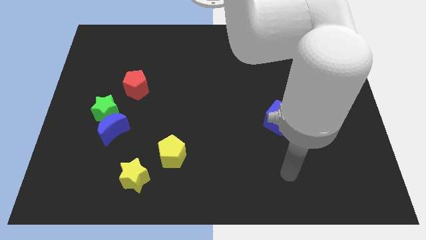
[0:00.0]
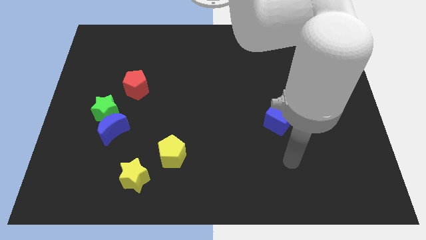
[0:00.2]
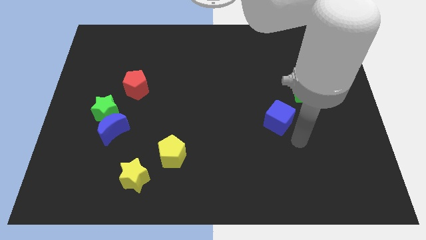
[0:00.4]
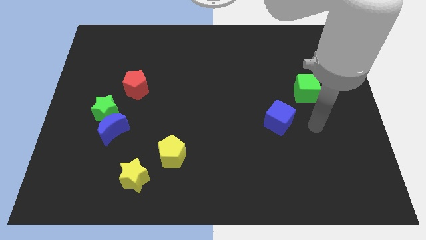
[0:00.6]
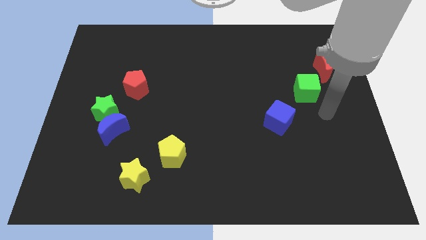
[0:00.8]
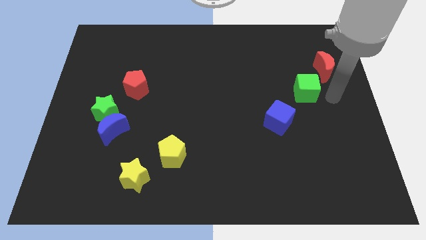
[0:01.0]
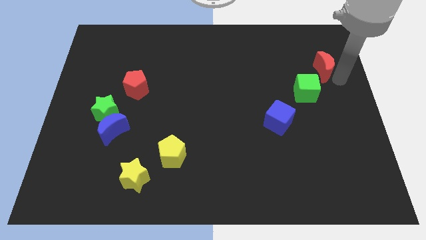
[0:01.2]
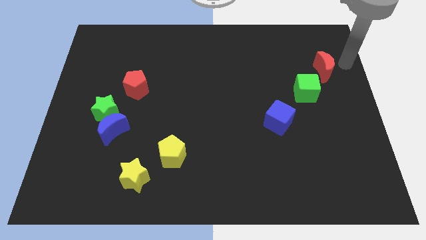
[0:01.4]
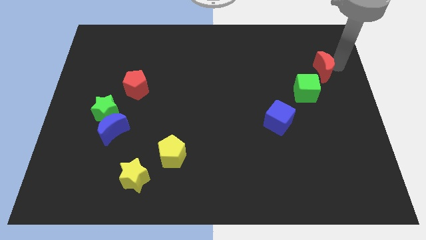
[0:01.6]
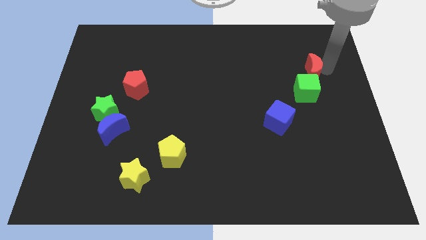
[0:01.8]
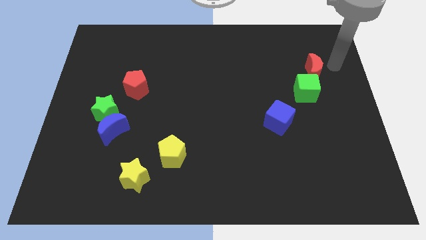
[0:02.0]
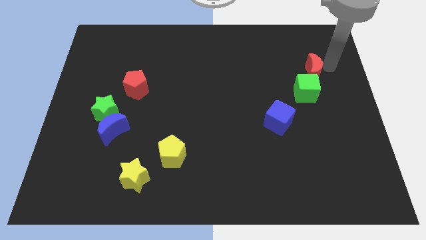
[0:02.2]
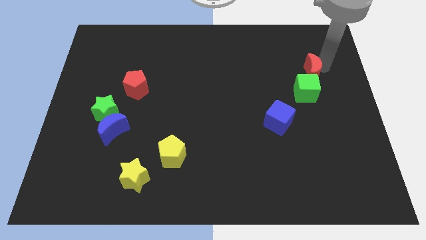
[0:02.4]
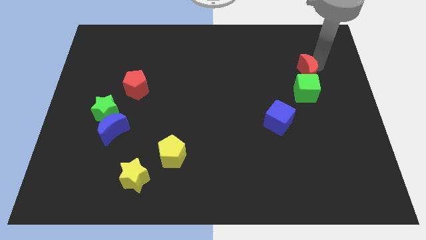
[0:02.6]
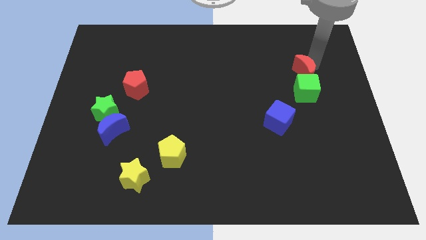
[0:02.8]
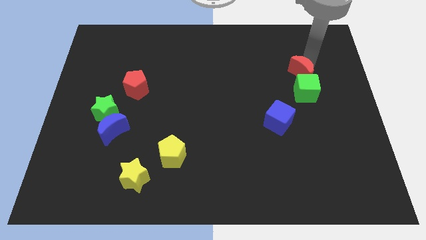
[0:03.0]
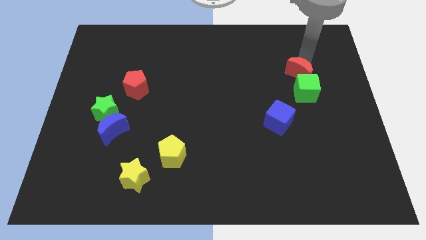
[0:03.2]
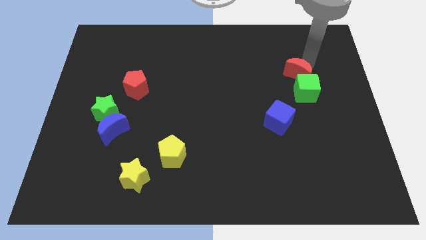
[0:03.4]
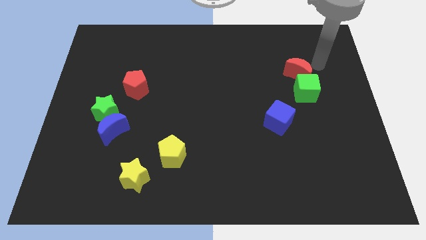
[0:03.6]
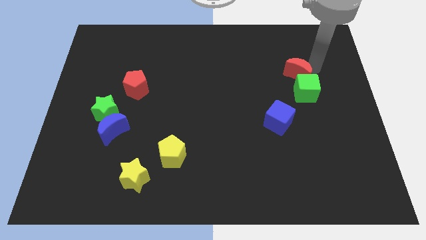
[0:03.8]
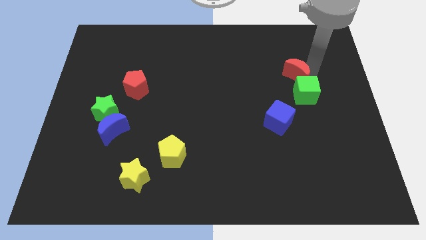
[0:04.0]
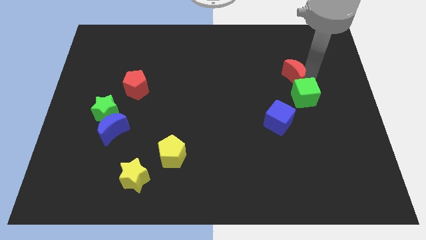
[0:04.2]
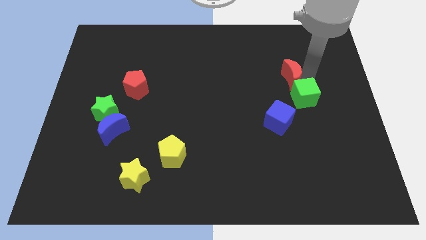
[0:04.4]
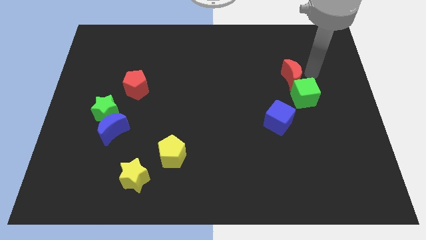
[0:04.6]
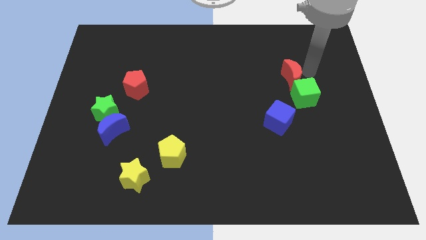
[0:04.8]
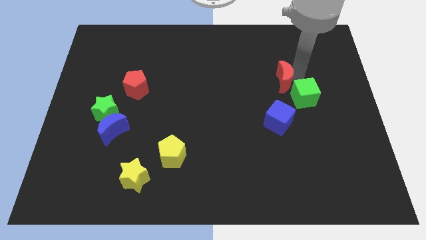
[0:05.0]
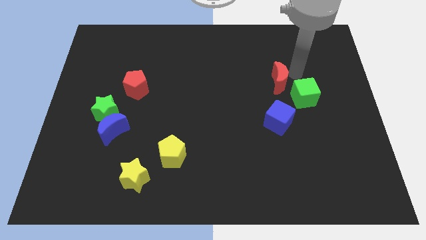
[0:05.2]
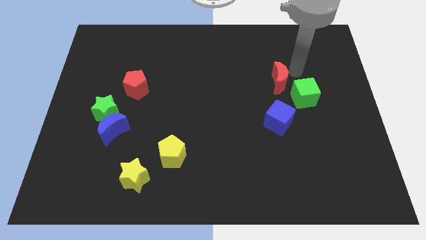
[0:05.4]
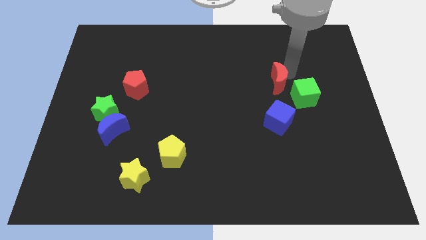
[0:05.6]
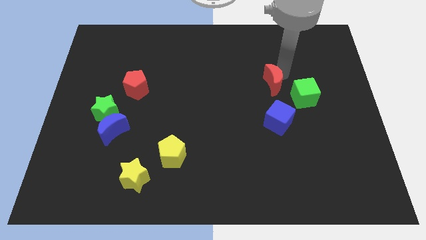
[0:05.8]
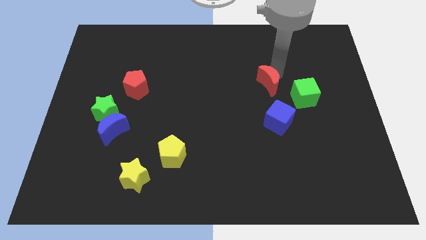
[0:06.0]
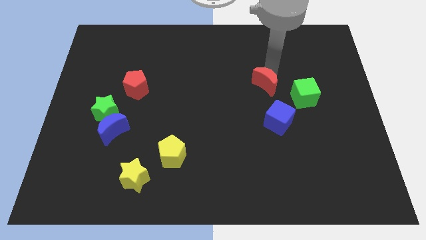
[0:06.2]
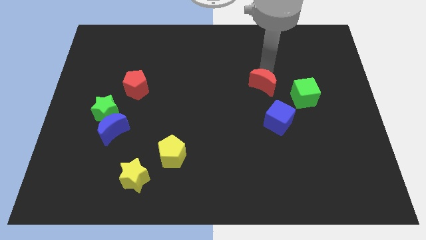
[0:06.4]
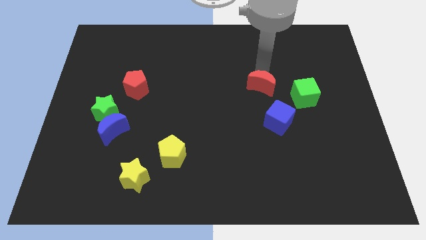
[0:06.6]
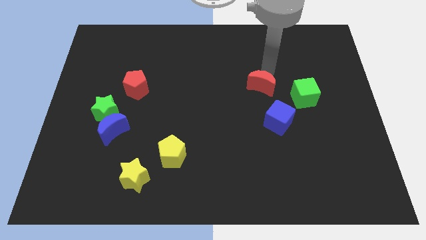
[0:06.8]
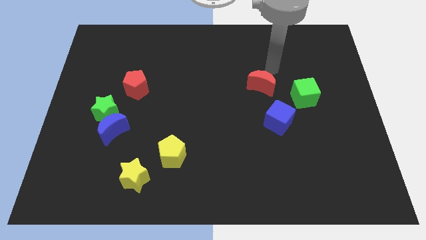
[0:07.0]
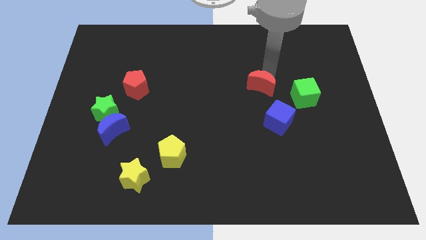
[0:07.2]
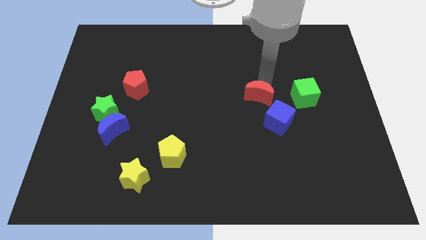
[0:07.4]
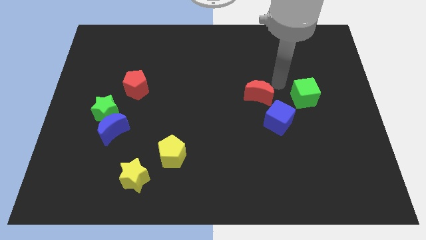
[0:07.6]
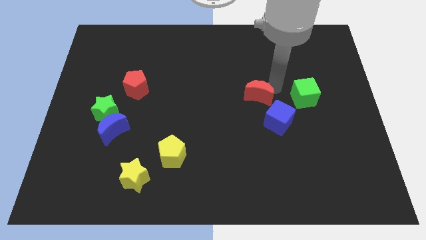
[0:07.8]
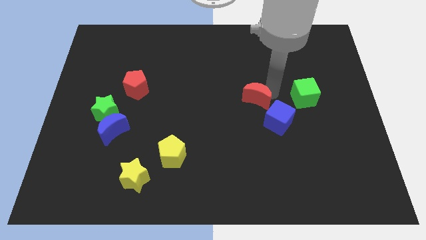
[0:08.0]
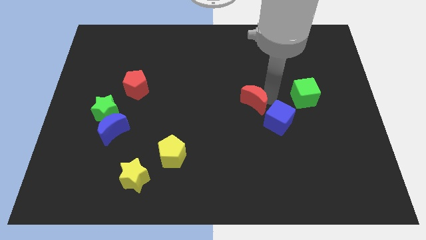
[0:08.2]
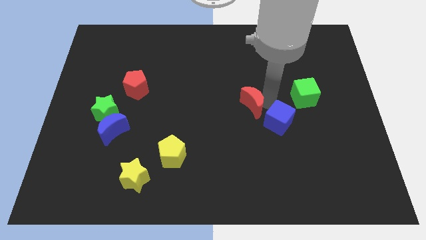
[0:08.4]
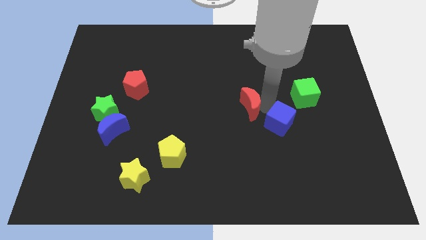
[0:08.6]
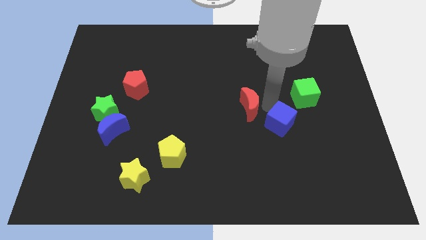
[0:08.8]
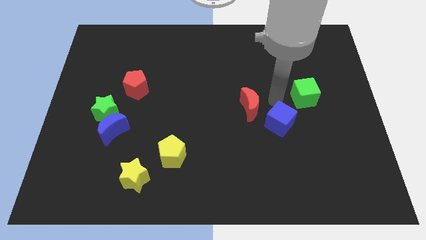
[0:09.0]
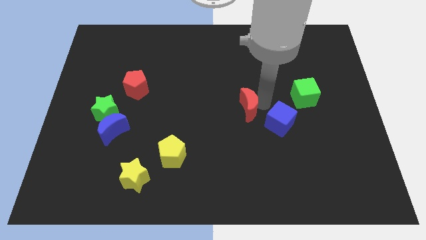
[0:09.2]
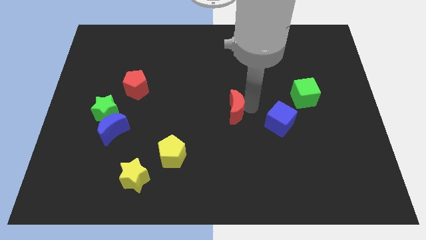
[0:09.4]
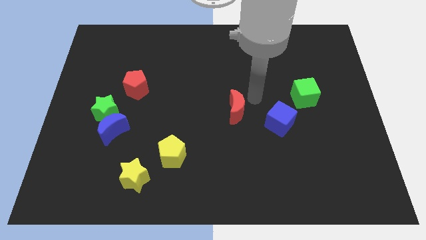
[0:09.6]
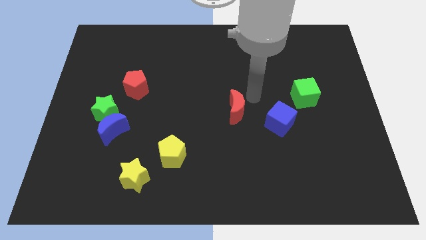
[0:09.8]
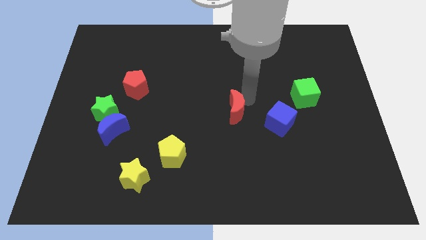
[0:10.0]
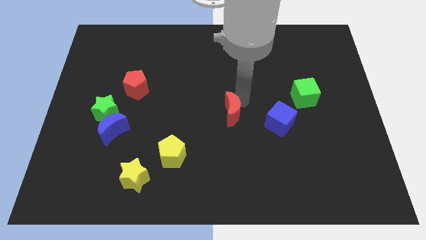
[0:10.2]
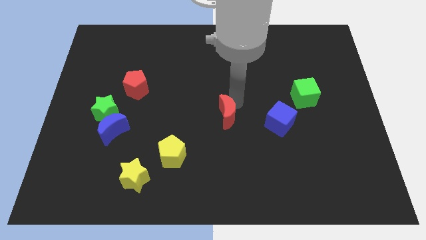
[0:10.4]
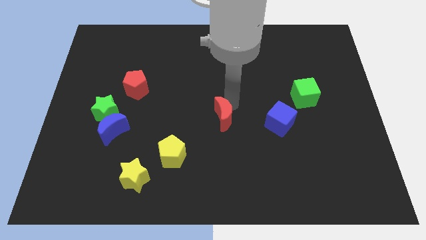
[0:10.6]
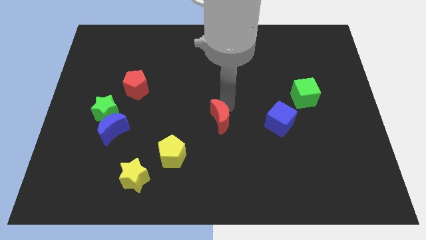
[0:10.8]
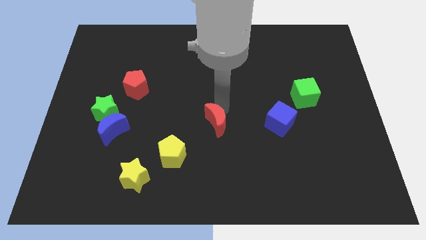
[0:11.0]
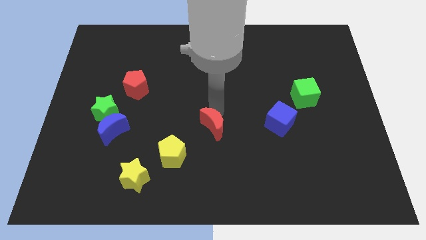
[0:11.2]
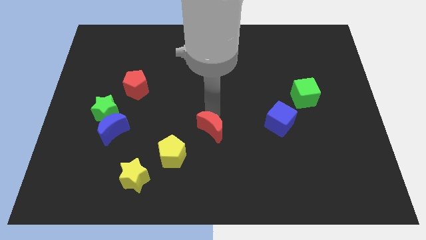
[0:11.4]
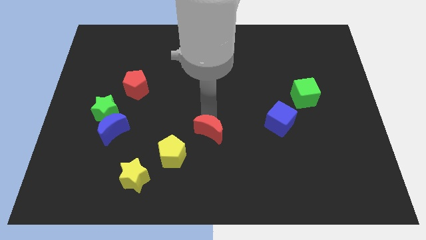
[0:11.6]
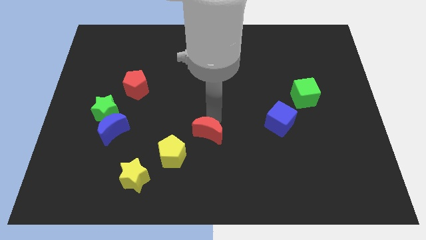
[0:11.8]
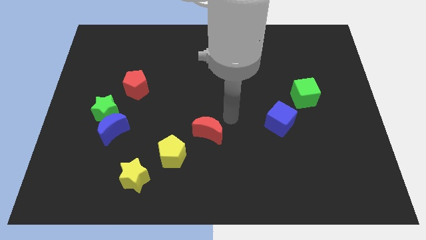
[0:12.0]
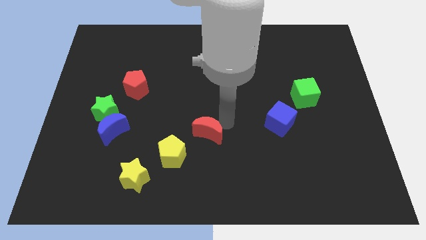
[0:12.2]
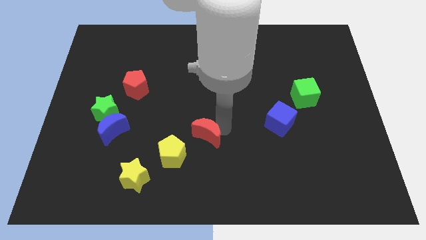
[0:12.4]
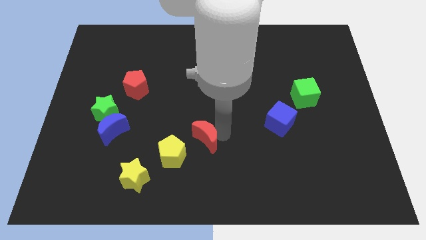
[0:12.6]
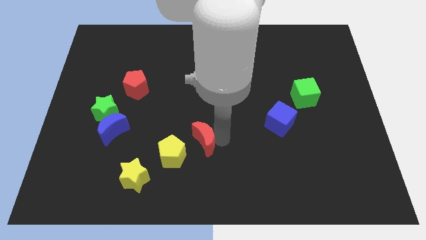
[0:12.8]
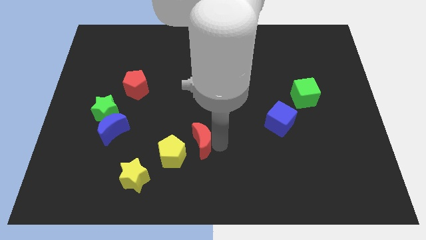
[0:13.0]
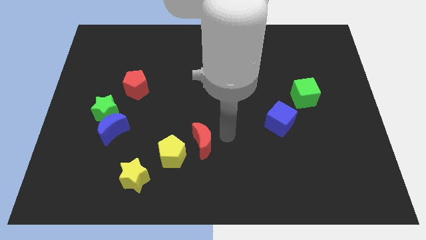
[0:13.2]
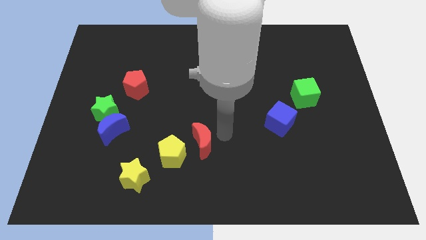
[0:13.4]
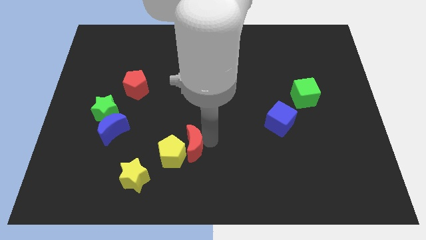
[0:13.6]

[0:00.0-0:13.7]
push the red moon close to the yellow pentagon
